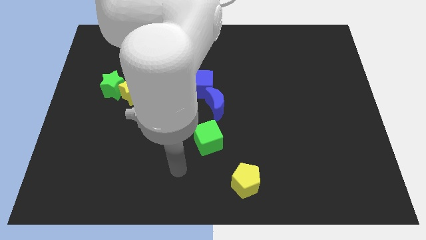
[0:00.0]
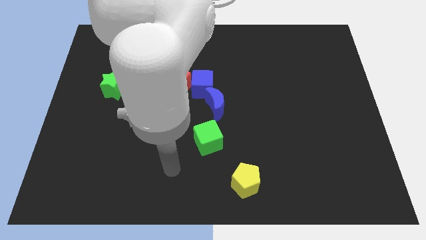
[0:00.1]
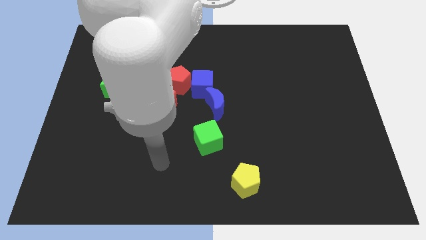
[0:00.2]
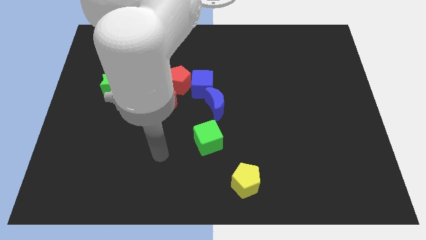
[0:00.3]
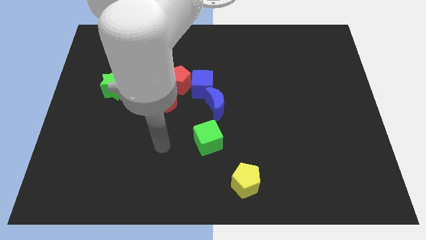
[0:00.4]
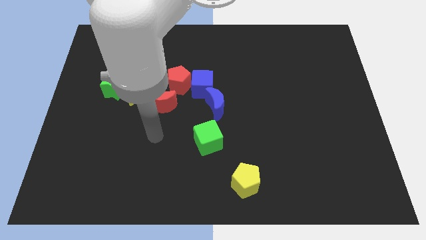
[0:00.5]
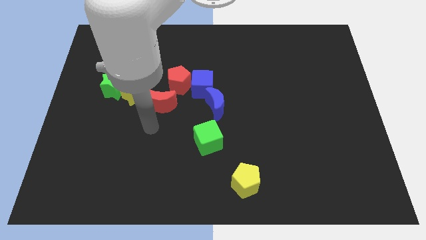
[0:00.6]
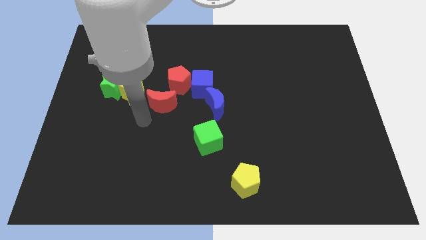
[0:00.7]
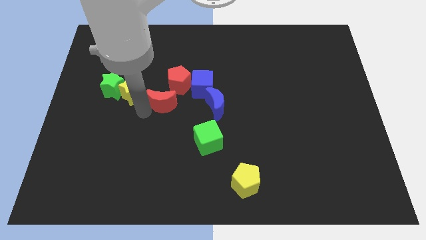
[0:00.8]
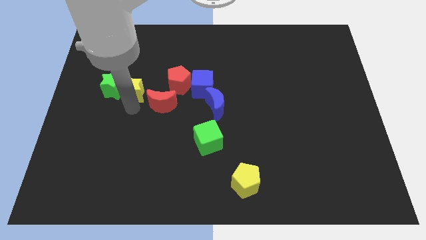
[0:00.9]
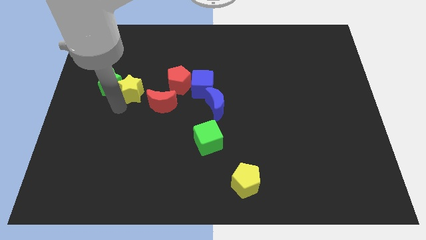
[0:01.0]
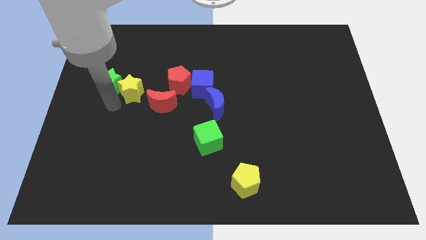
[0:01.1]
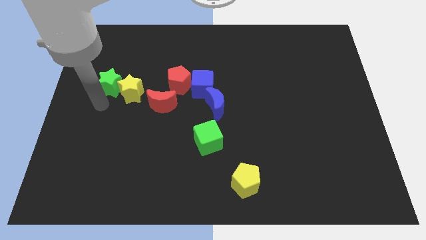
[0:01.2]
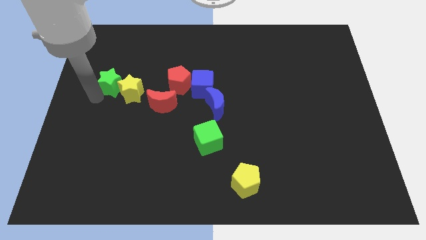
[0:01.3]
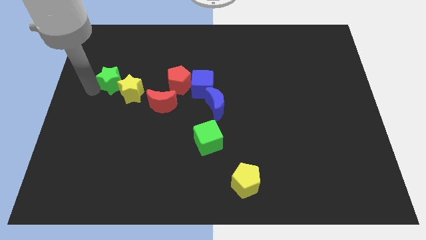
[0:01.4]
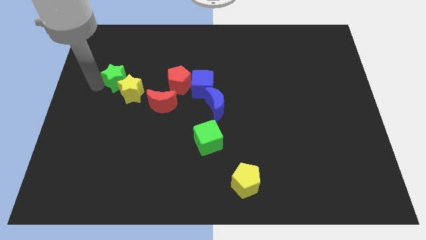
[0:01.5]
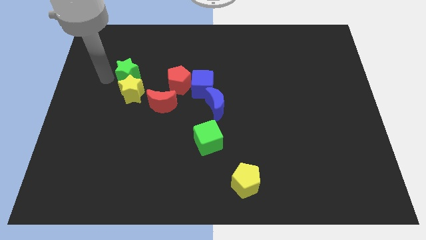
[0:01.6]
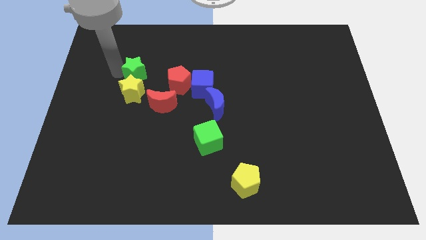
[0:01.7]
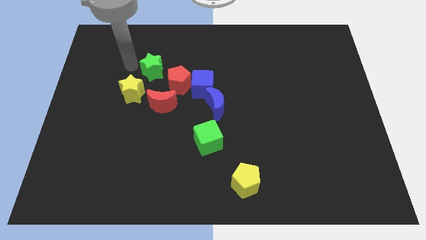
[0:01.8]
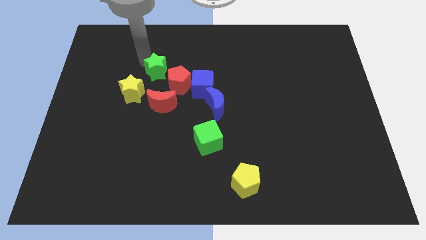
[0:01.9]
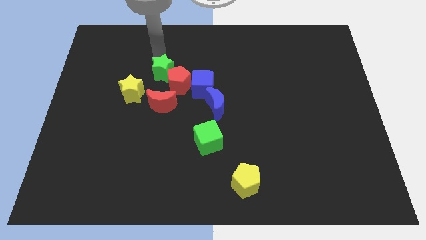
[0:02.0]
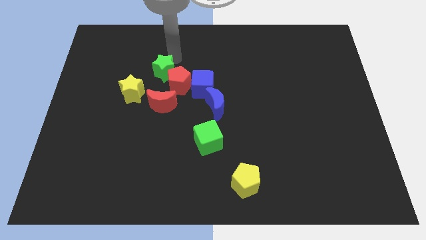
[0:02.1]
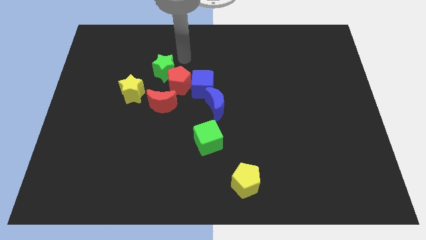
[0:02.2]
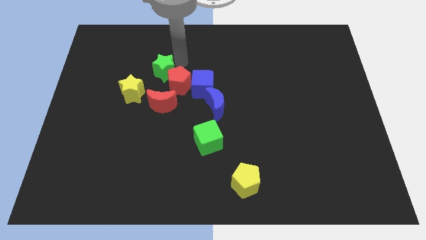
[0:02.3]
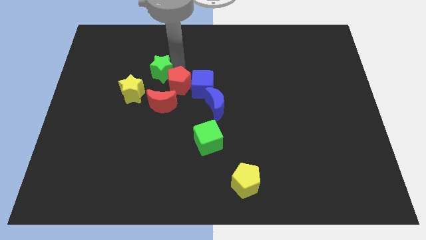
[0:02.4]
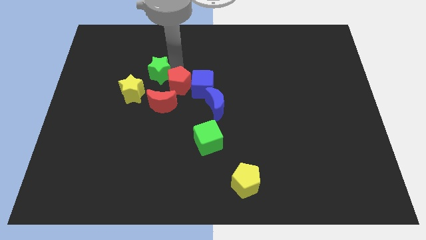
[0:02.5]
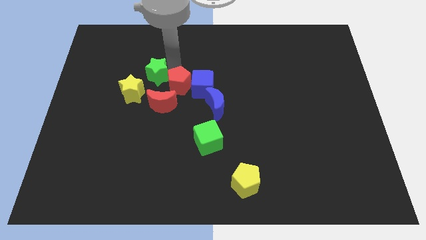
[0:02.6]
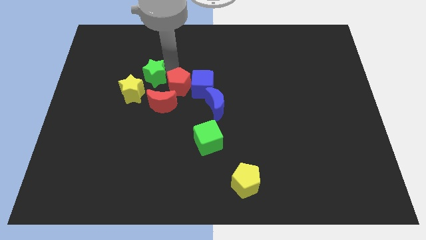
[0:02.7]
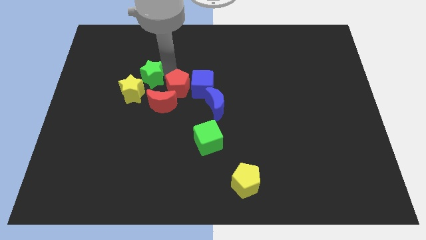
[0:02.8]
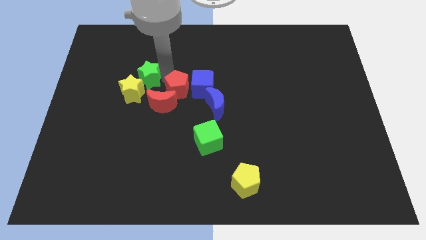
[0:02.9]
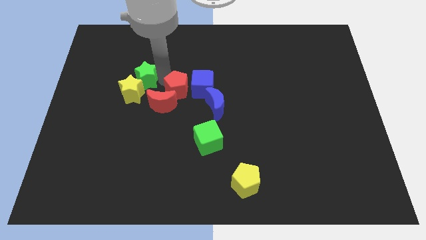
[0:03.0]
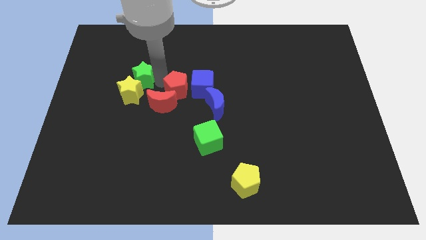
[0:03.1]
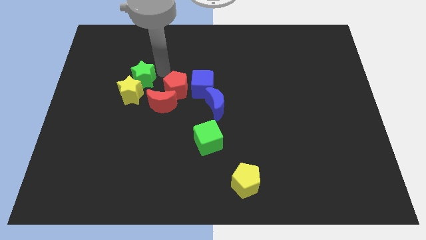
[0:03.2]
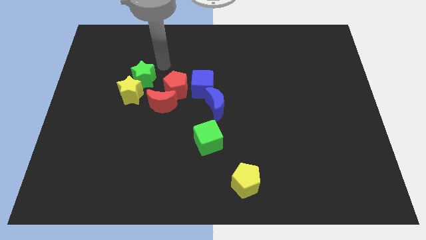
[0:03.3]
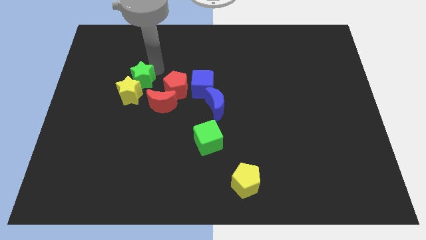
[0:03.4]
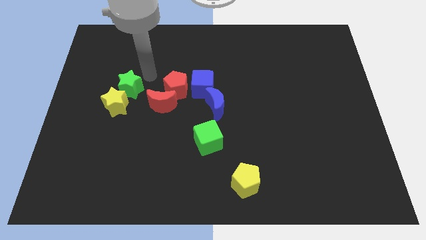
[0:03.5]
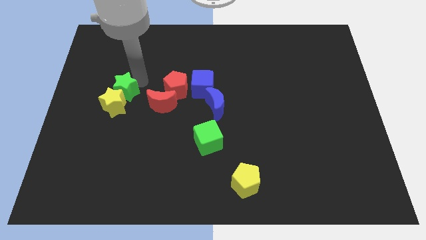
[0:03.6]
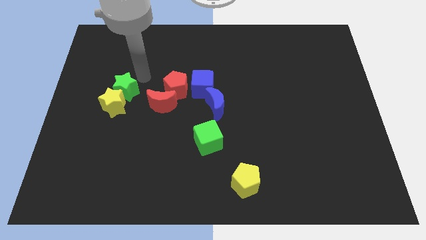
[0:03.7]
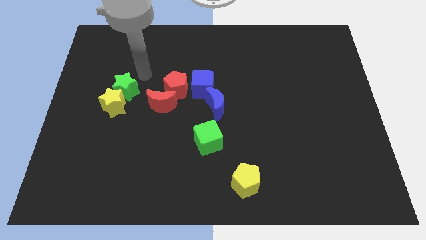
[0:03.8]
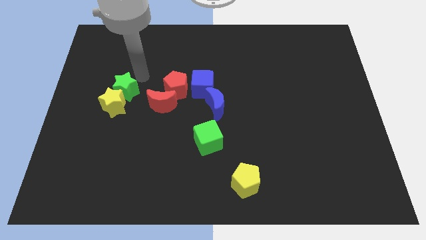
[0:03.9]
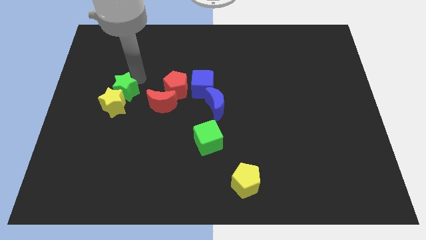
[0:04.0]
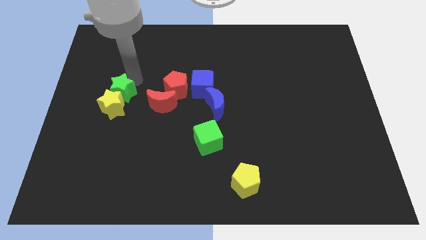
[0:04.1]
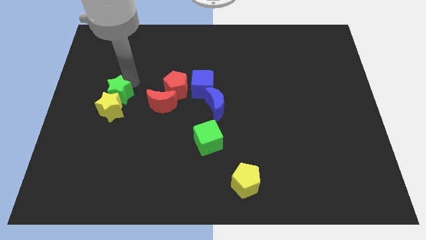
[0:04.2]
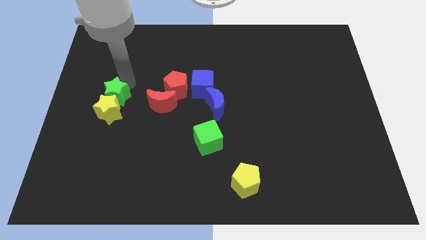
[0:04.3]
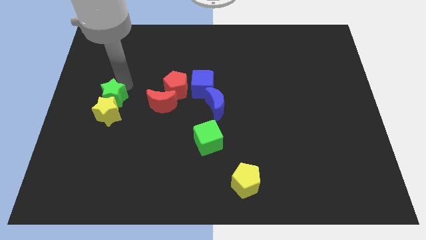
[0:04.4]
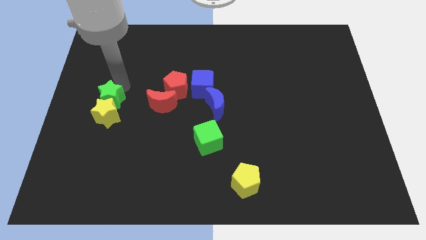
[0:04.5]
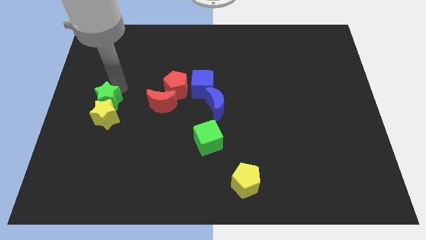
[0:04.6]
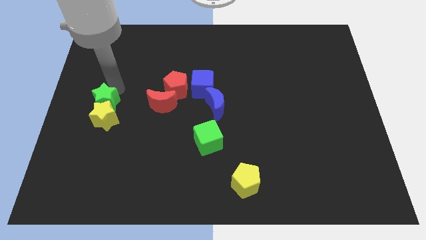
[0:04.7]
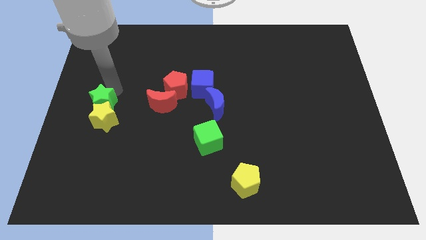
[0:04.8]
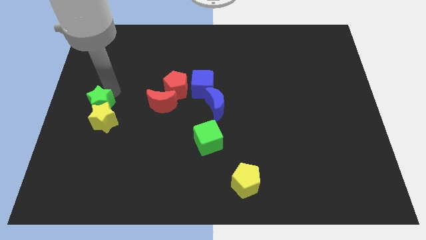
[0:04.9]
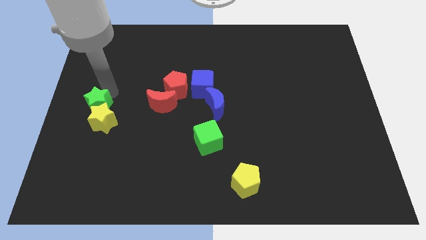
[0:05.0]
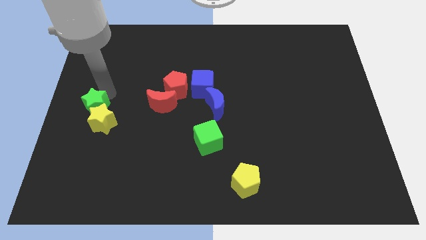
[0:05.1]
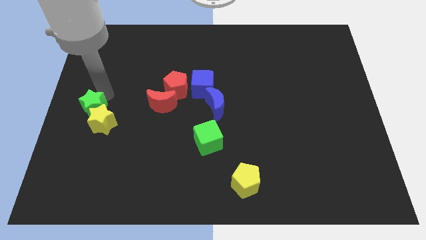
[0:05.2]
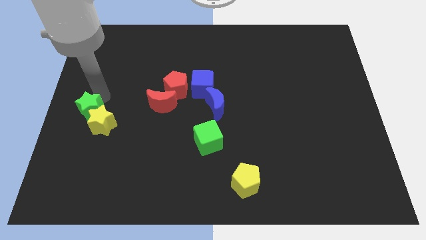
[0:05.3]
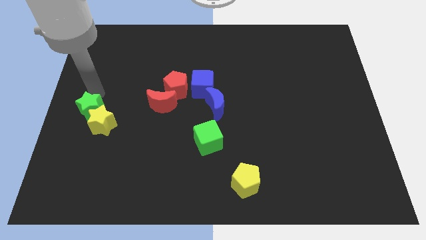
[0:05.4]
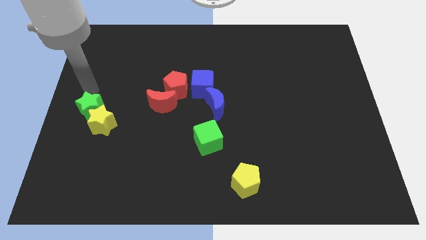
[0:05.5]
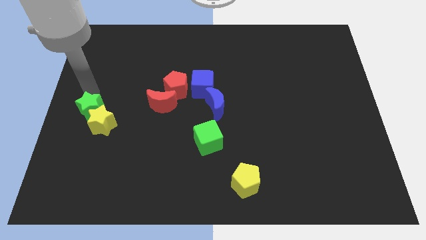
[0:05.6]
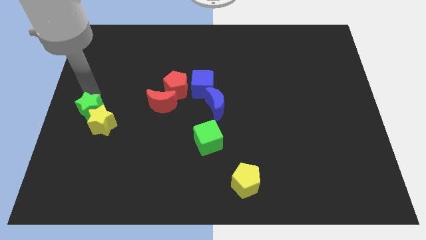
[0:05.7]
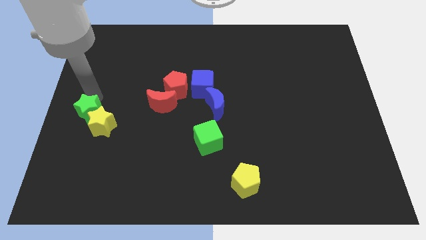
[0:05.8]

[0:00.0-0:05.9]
slide the green star a bit downwards

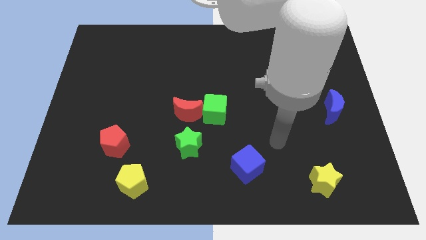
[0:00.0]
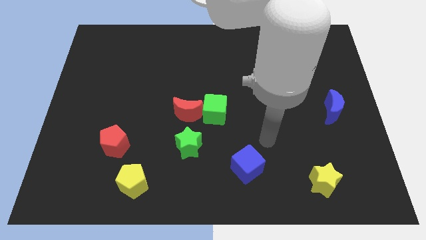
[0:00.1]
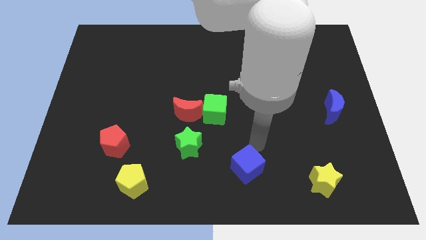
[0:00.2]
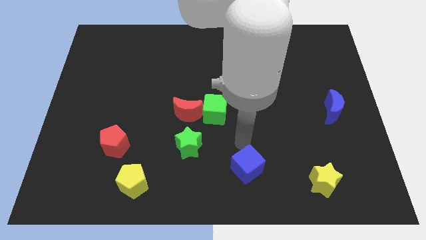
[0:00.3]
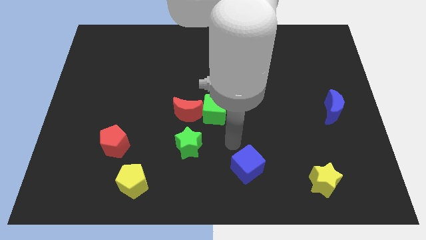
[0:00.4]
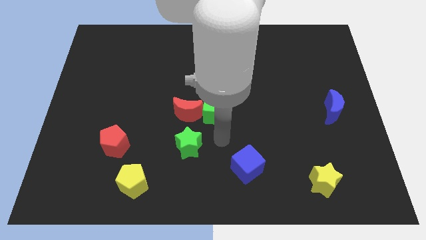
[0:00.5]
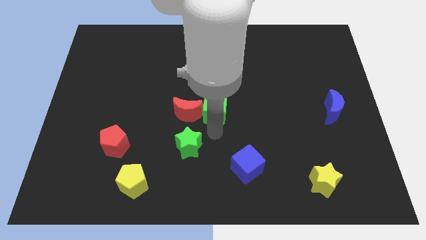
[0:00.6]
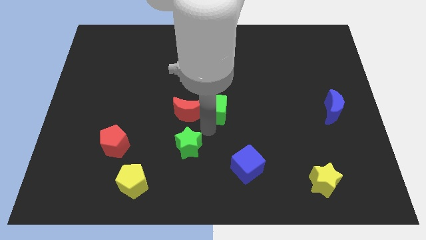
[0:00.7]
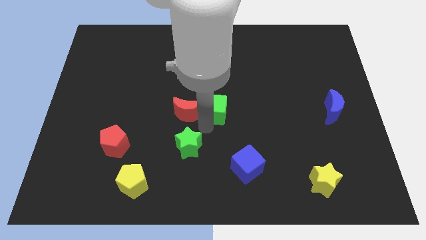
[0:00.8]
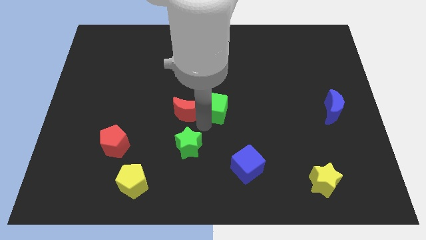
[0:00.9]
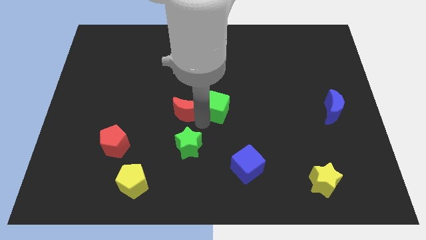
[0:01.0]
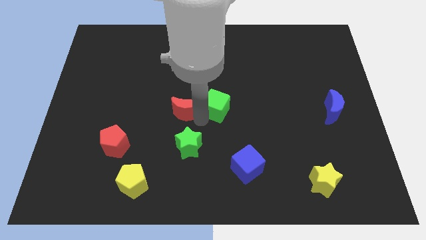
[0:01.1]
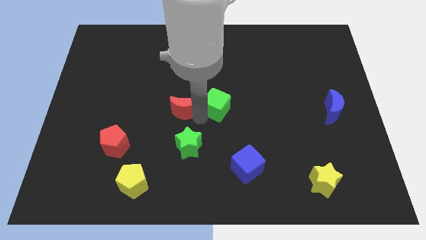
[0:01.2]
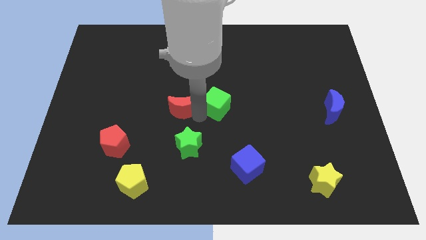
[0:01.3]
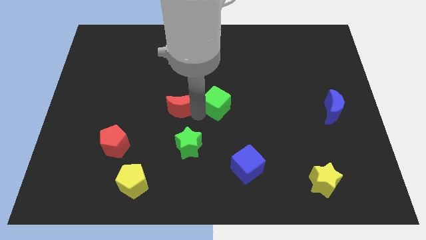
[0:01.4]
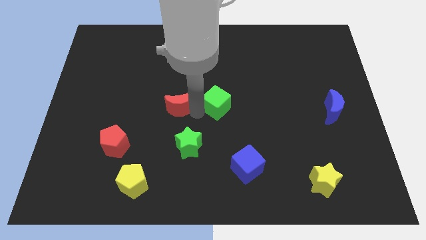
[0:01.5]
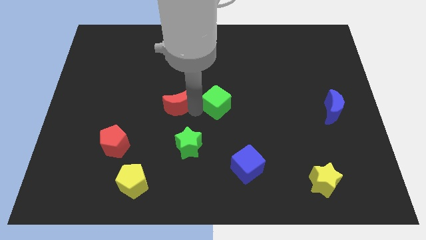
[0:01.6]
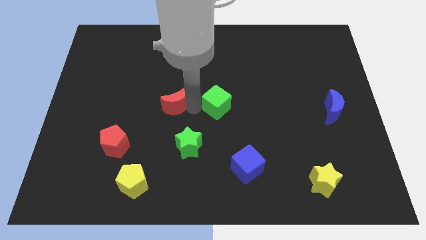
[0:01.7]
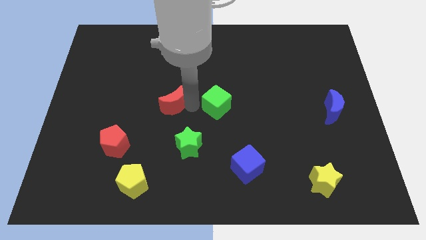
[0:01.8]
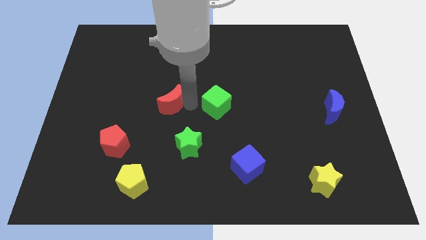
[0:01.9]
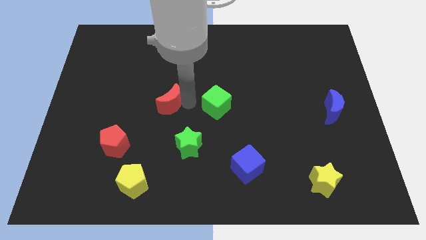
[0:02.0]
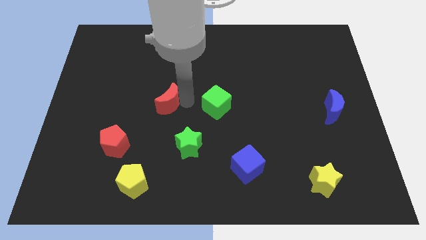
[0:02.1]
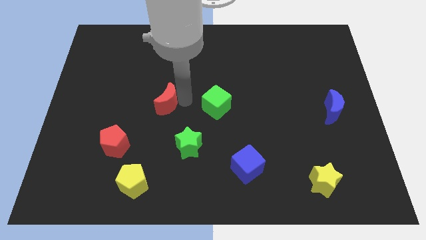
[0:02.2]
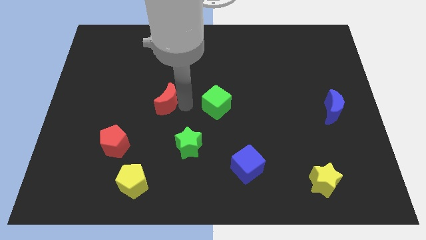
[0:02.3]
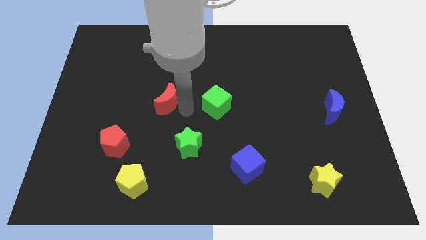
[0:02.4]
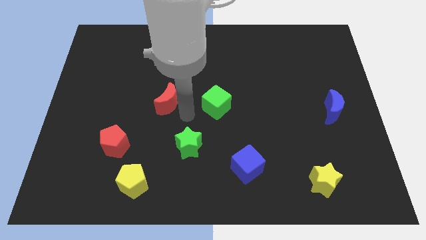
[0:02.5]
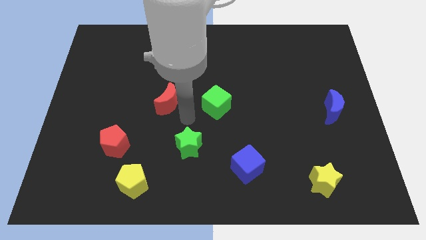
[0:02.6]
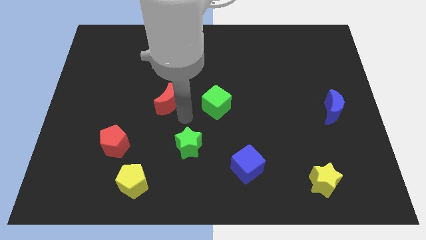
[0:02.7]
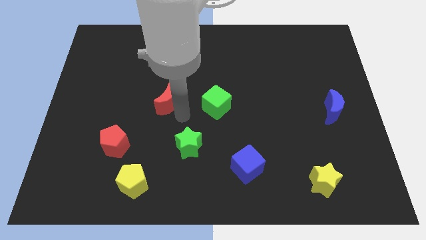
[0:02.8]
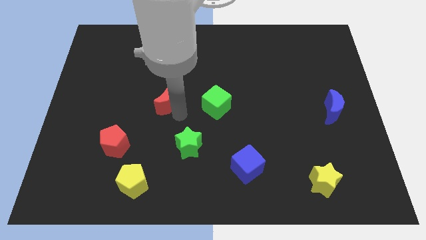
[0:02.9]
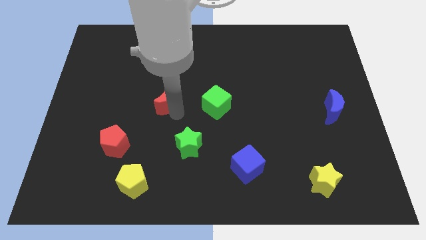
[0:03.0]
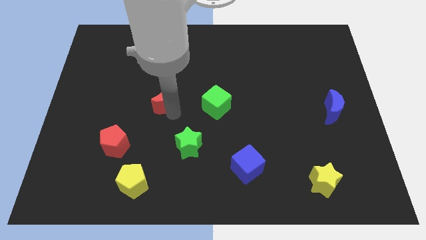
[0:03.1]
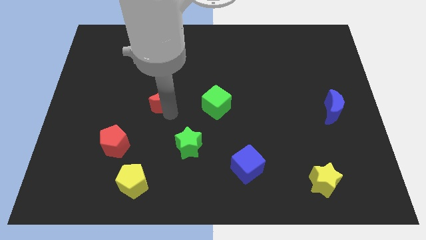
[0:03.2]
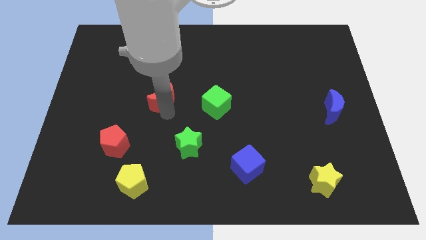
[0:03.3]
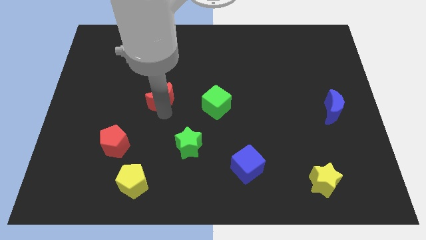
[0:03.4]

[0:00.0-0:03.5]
push the red moon a bit up and left
